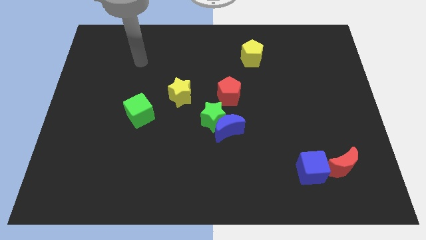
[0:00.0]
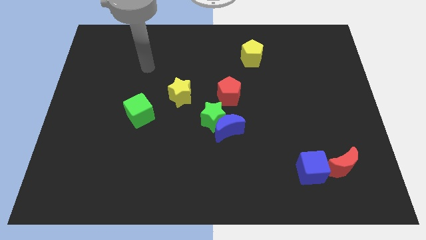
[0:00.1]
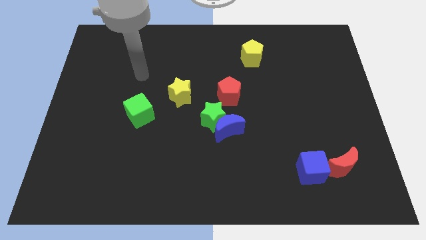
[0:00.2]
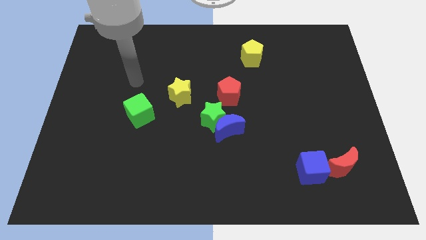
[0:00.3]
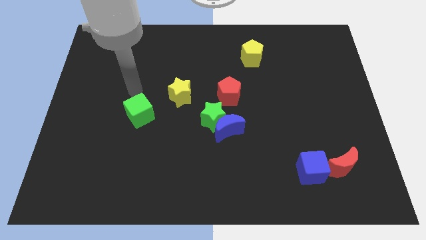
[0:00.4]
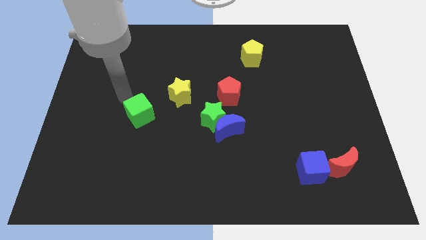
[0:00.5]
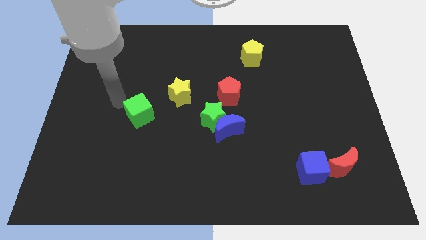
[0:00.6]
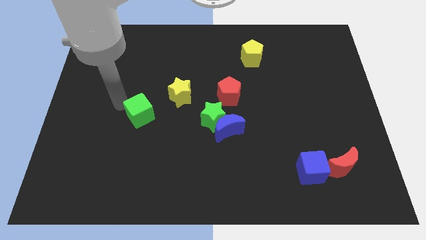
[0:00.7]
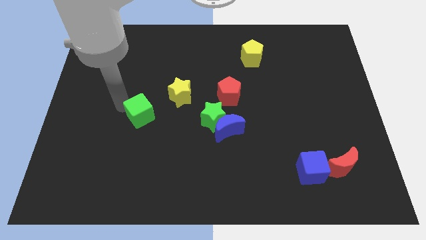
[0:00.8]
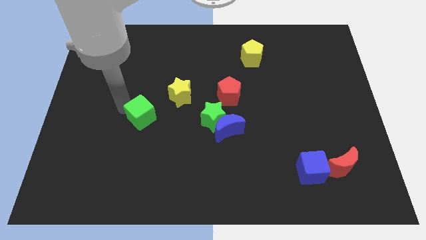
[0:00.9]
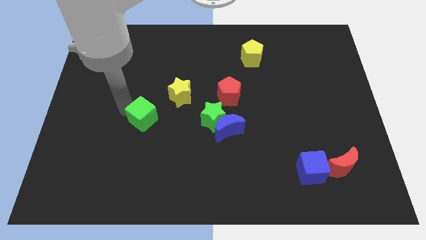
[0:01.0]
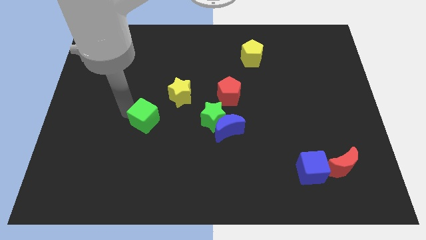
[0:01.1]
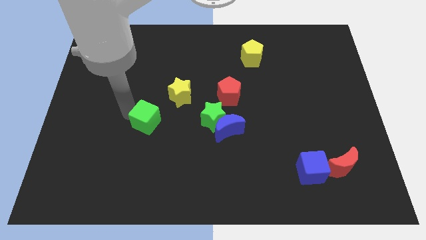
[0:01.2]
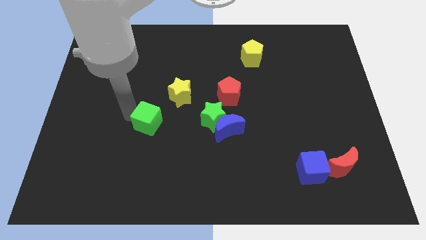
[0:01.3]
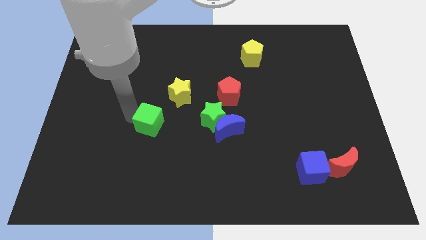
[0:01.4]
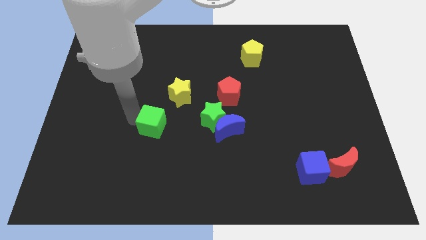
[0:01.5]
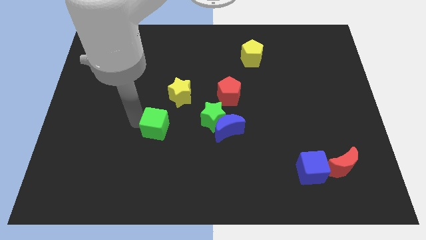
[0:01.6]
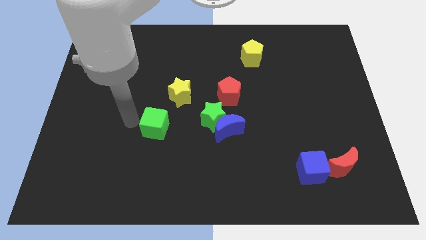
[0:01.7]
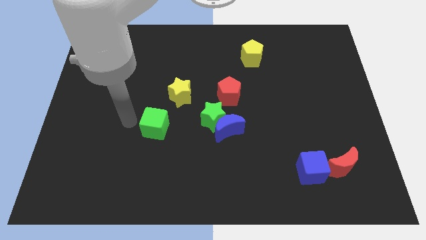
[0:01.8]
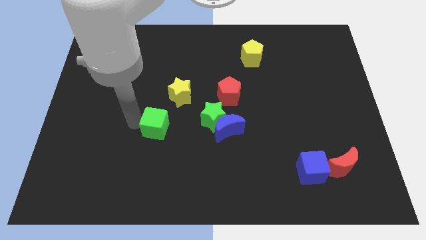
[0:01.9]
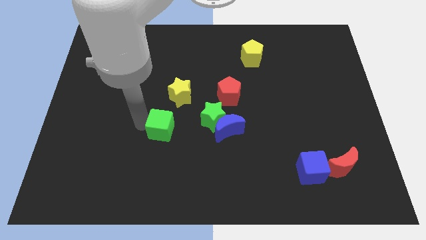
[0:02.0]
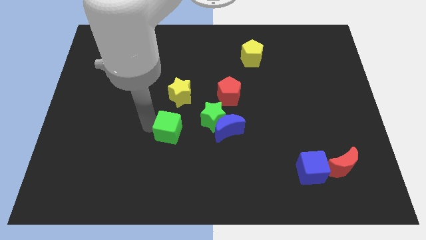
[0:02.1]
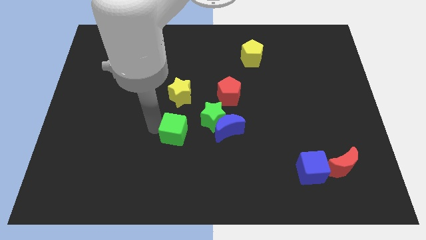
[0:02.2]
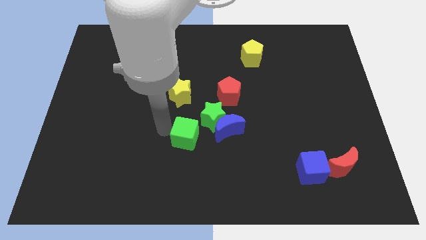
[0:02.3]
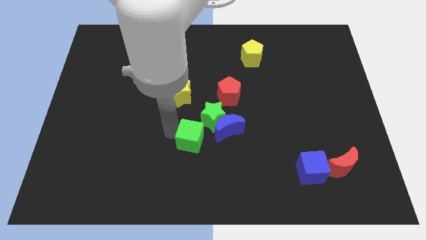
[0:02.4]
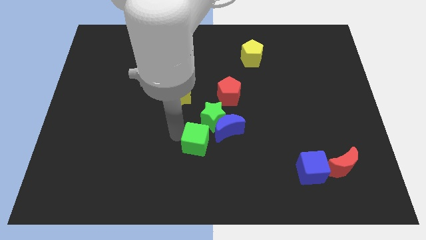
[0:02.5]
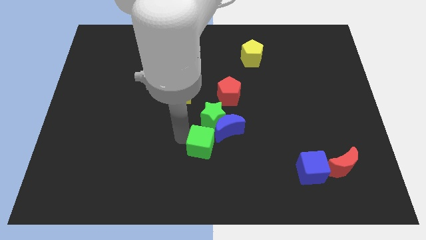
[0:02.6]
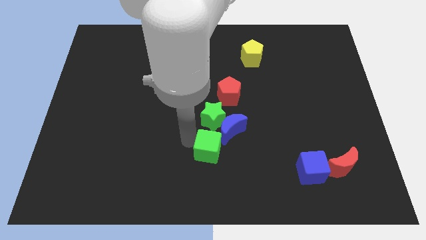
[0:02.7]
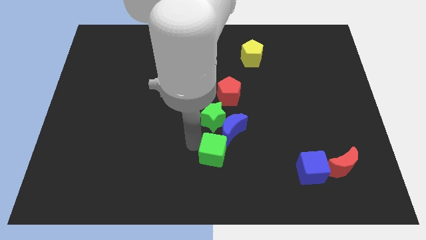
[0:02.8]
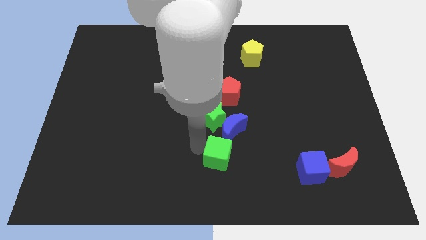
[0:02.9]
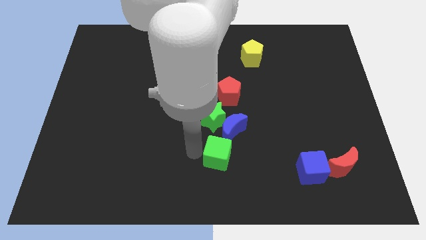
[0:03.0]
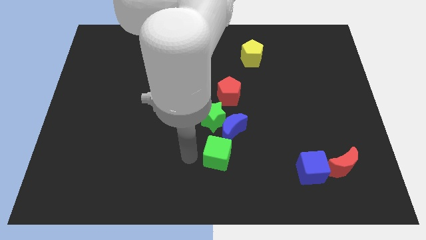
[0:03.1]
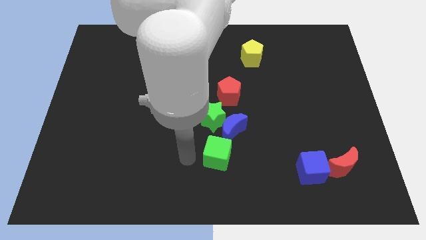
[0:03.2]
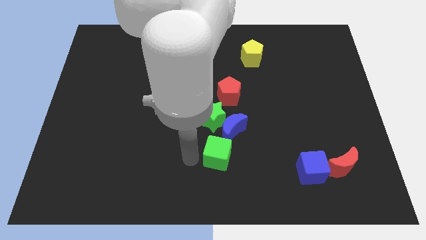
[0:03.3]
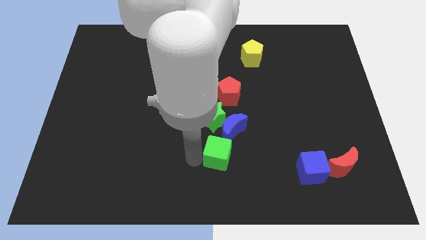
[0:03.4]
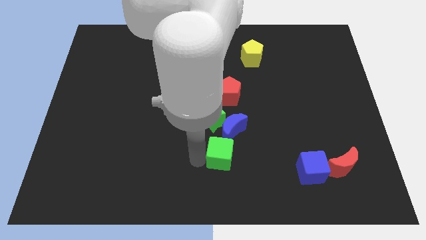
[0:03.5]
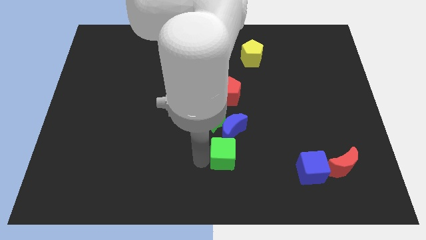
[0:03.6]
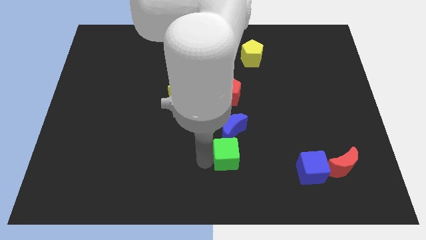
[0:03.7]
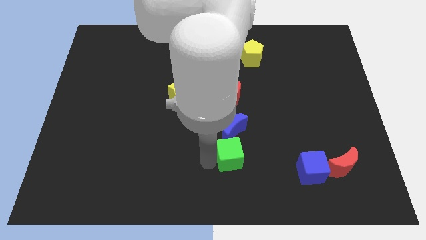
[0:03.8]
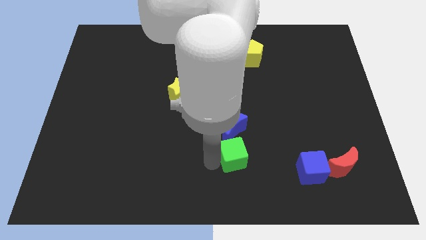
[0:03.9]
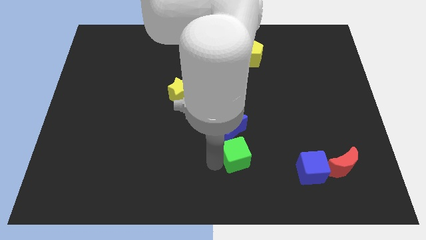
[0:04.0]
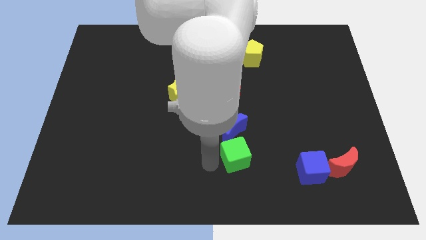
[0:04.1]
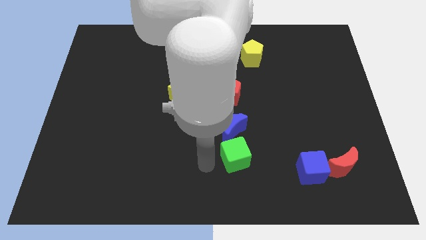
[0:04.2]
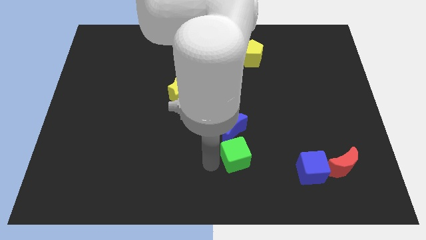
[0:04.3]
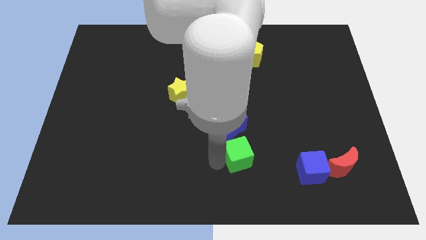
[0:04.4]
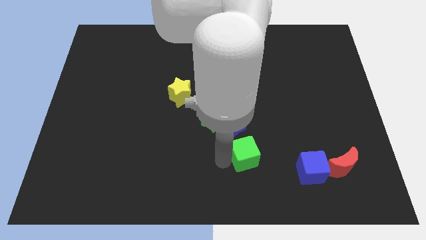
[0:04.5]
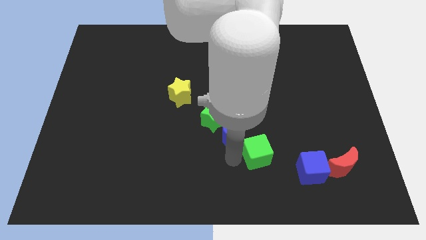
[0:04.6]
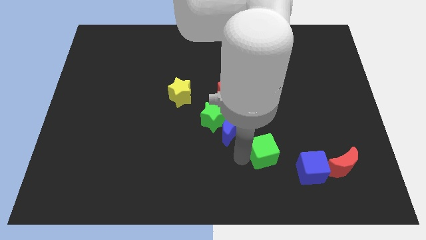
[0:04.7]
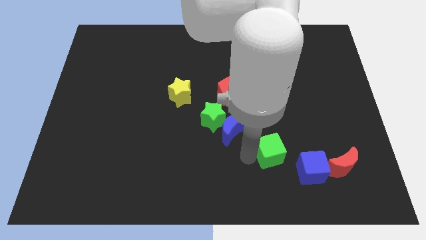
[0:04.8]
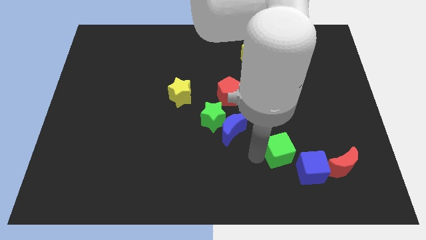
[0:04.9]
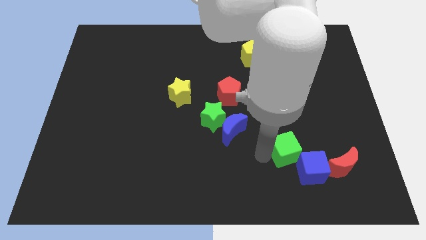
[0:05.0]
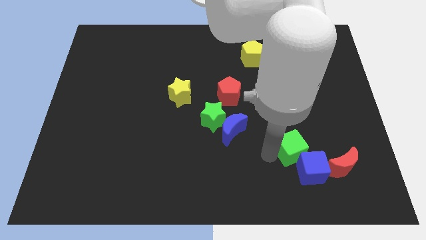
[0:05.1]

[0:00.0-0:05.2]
push the green cube to the top left side of the red moon

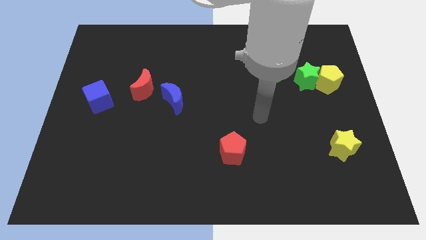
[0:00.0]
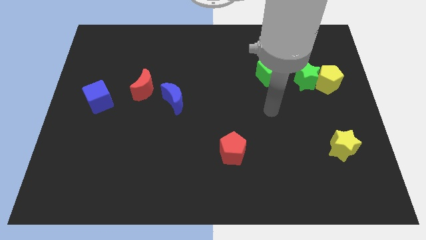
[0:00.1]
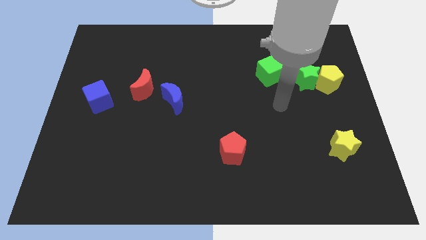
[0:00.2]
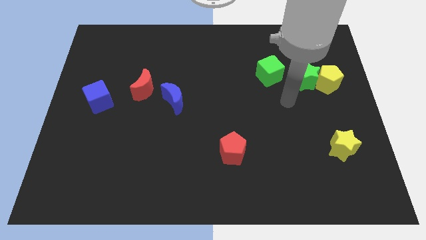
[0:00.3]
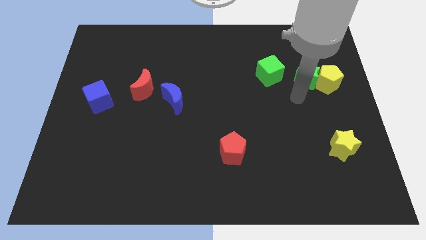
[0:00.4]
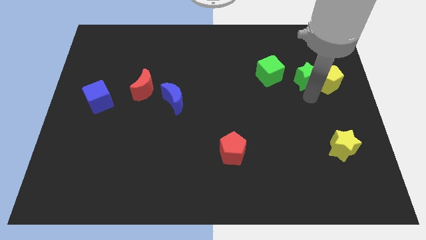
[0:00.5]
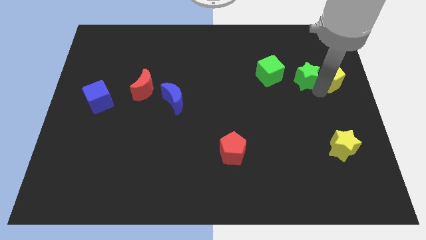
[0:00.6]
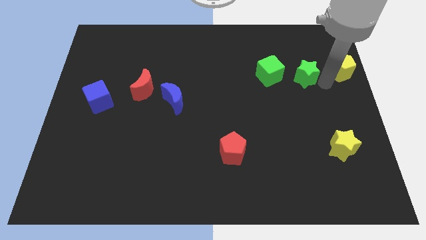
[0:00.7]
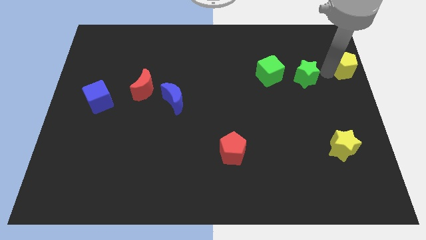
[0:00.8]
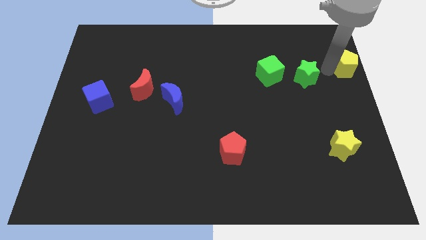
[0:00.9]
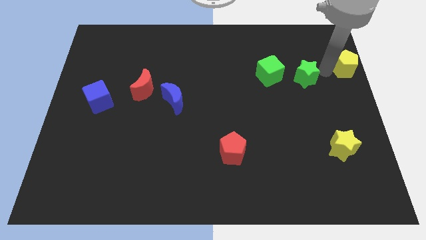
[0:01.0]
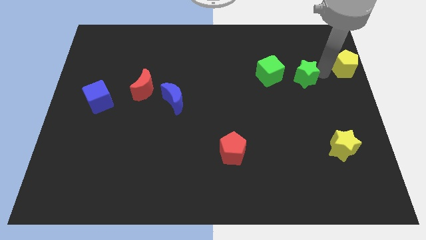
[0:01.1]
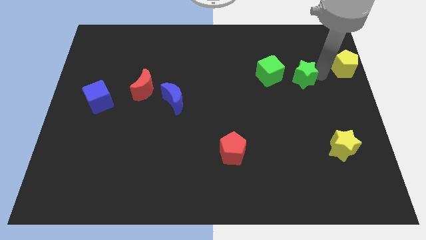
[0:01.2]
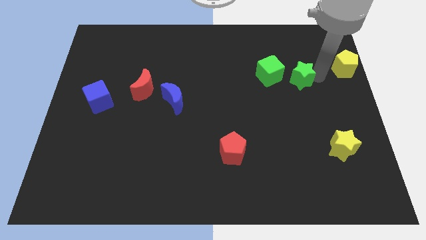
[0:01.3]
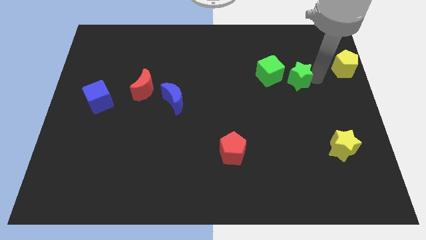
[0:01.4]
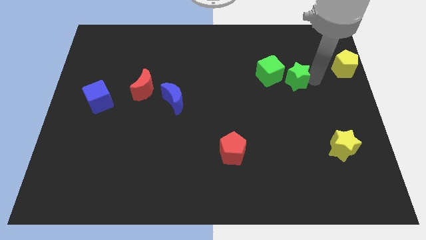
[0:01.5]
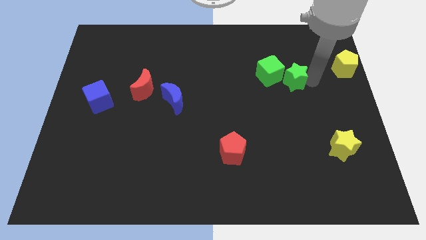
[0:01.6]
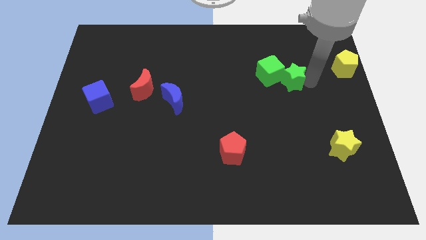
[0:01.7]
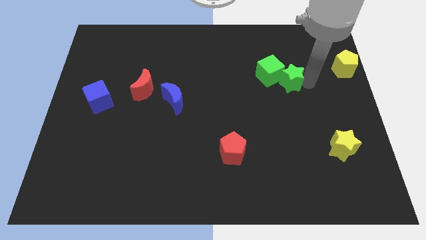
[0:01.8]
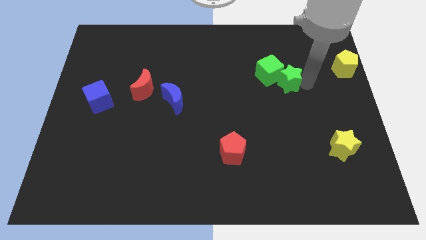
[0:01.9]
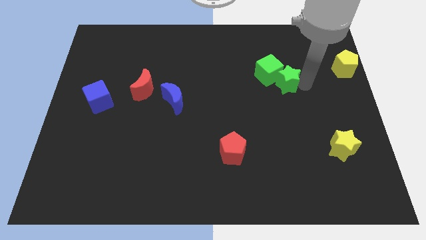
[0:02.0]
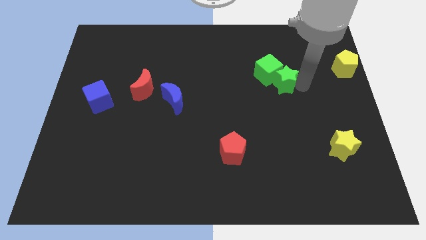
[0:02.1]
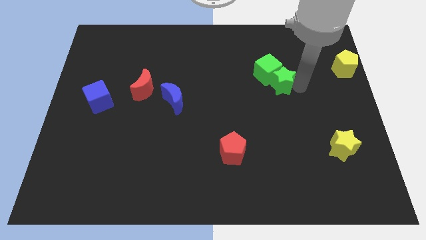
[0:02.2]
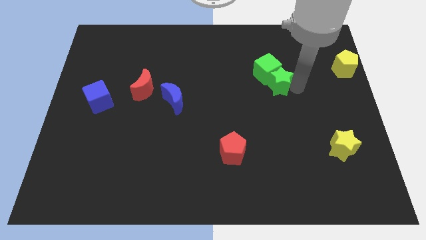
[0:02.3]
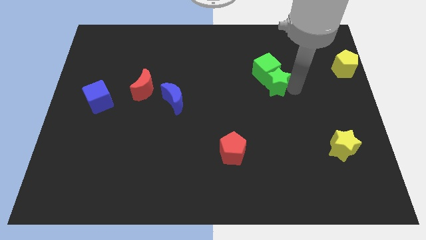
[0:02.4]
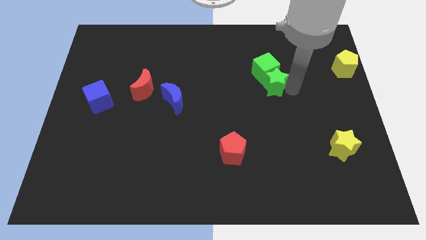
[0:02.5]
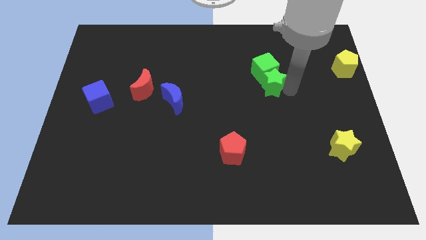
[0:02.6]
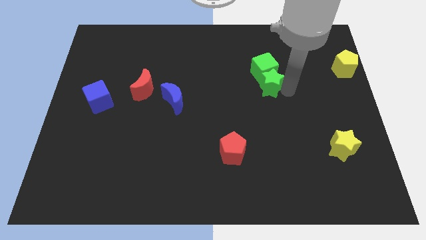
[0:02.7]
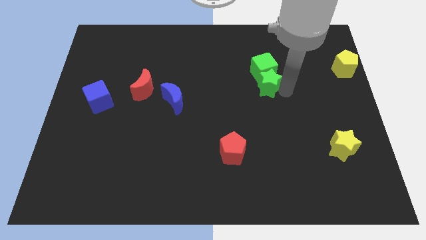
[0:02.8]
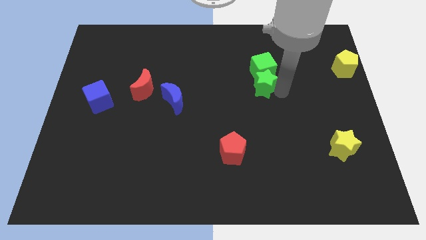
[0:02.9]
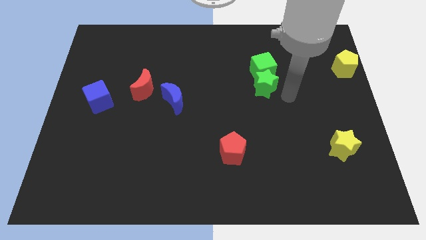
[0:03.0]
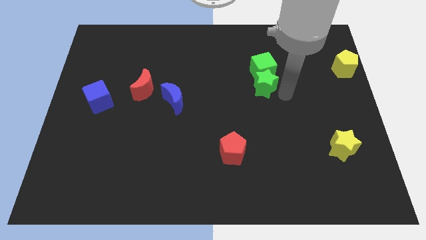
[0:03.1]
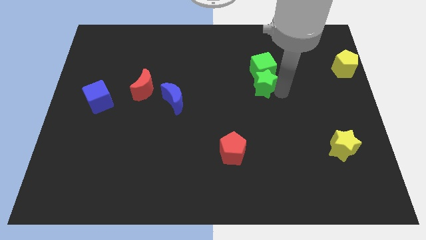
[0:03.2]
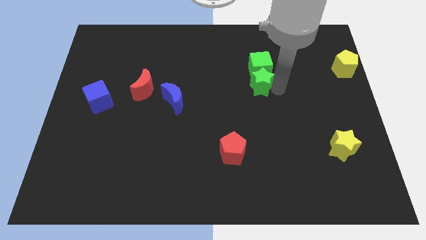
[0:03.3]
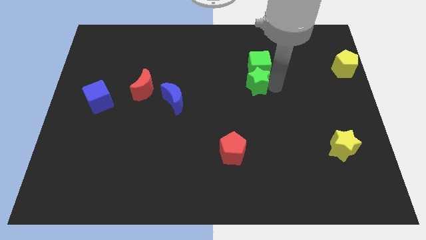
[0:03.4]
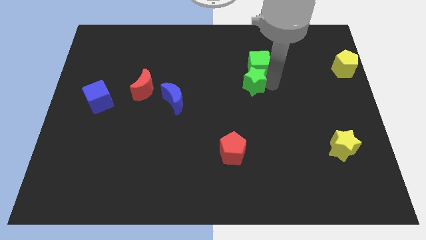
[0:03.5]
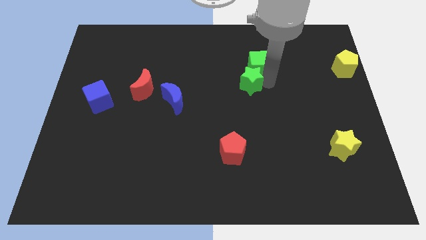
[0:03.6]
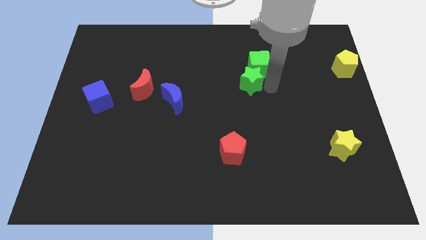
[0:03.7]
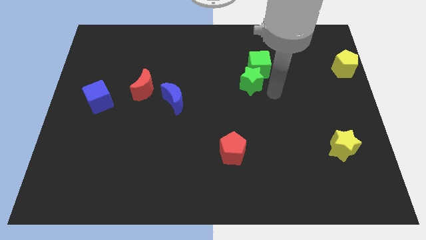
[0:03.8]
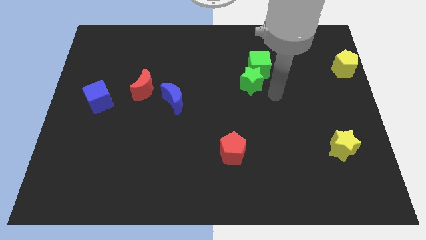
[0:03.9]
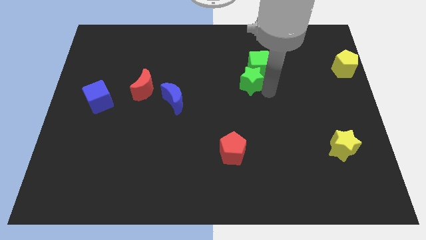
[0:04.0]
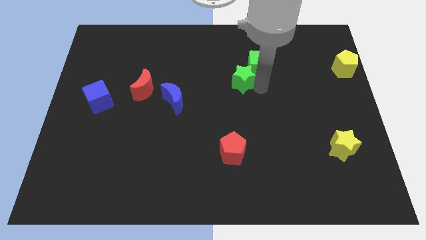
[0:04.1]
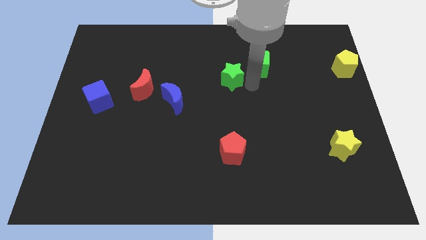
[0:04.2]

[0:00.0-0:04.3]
put the green star just left of the green cube
